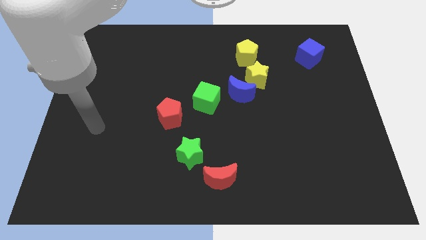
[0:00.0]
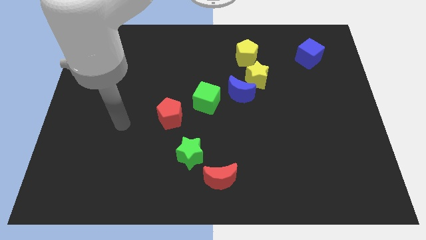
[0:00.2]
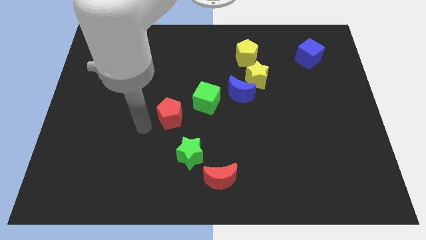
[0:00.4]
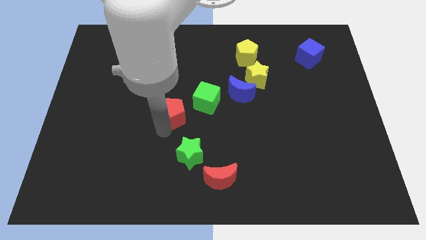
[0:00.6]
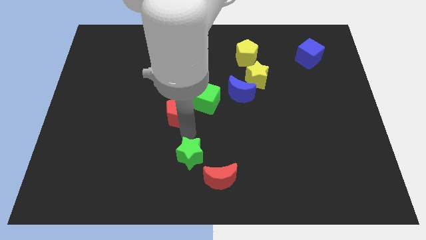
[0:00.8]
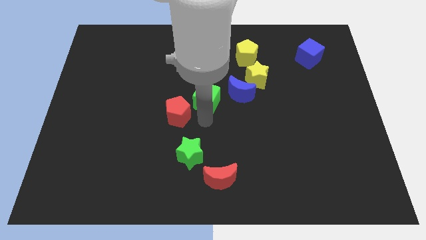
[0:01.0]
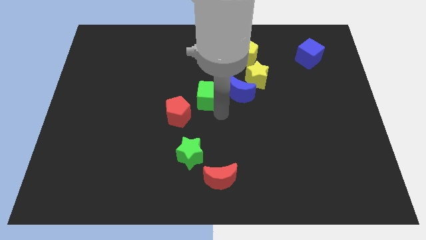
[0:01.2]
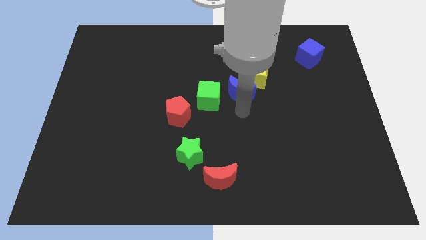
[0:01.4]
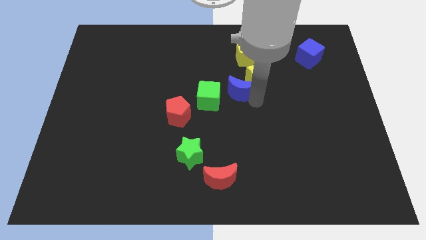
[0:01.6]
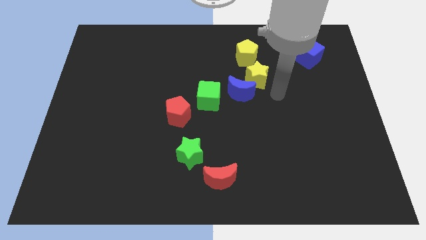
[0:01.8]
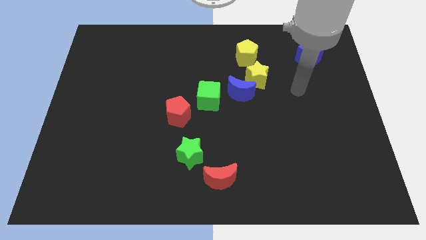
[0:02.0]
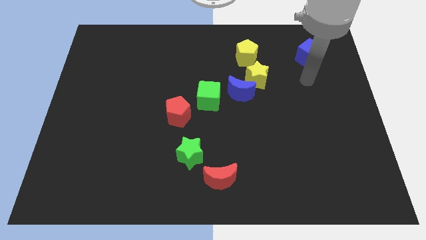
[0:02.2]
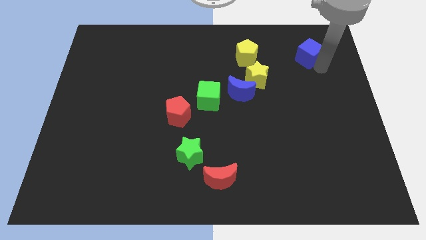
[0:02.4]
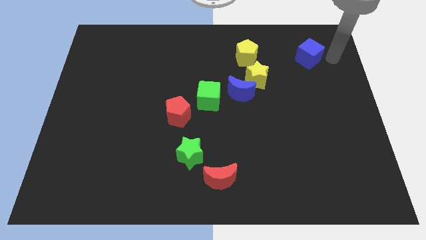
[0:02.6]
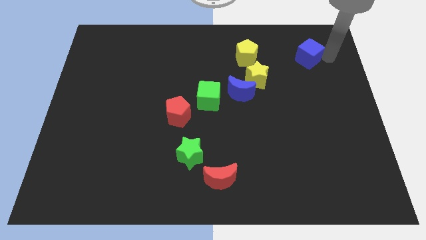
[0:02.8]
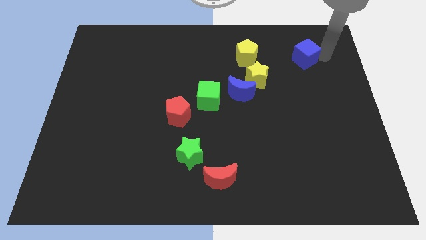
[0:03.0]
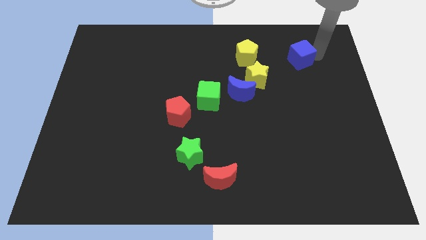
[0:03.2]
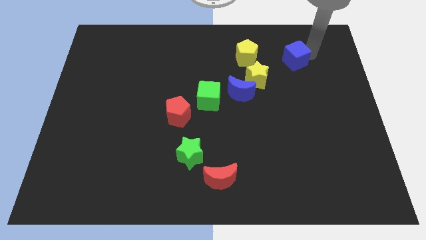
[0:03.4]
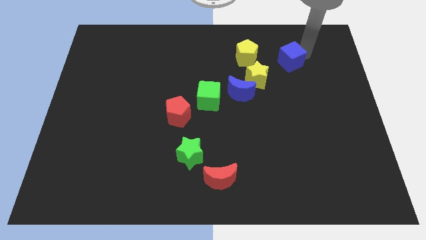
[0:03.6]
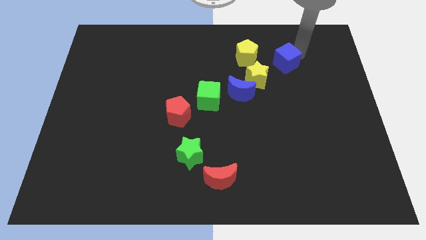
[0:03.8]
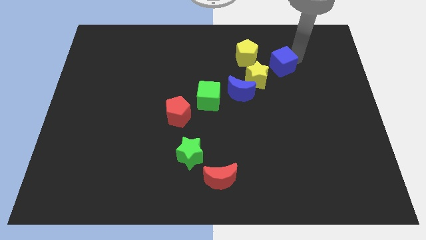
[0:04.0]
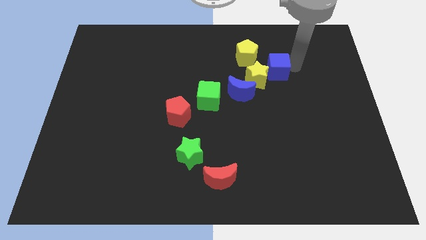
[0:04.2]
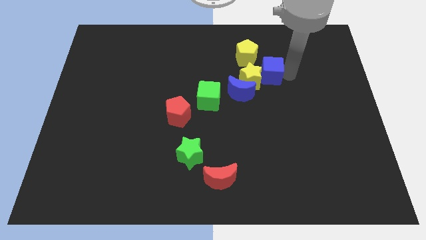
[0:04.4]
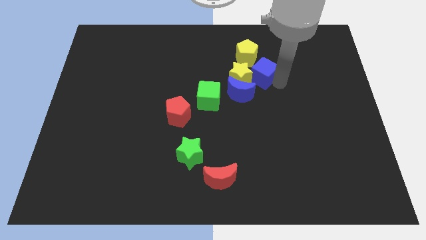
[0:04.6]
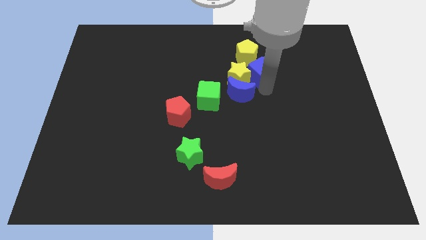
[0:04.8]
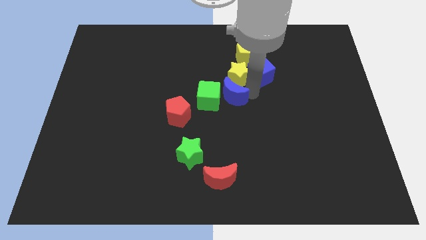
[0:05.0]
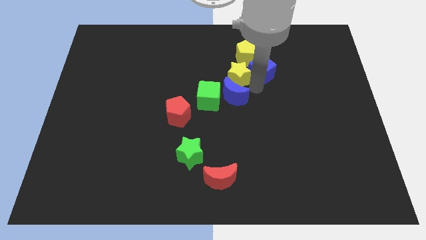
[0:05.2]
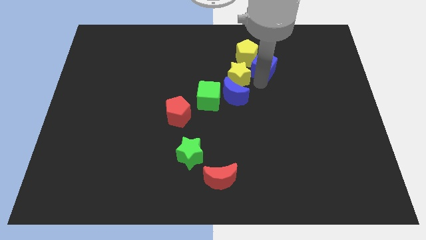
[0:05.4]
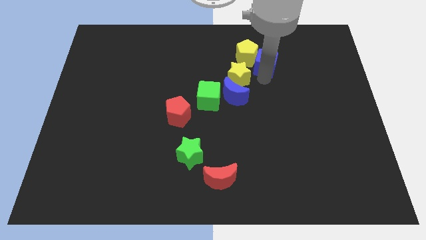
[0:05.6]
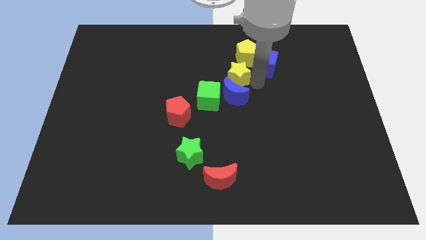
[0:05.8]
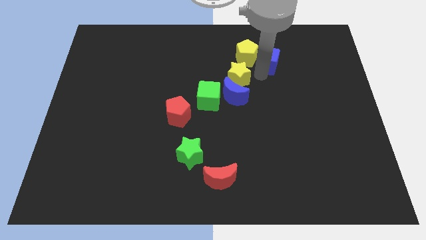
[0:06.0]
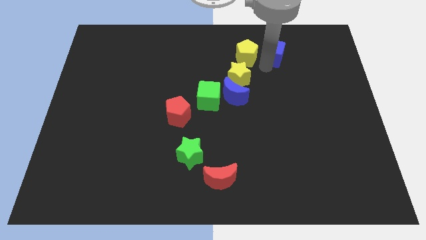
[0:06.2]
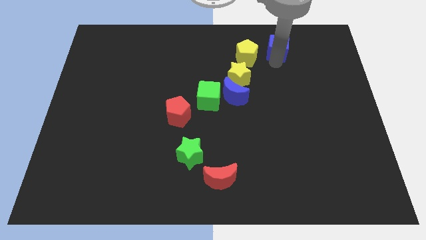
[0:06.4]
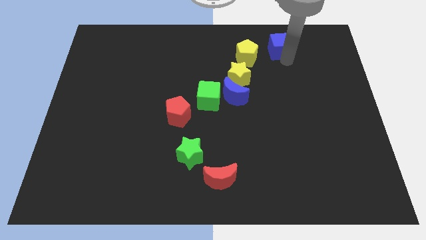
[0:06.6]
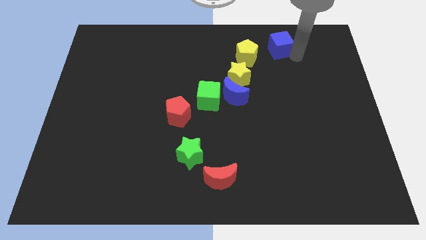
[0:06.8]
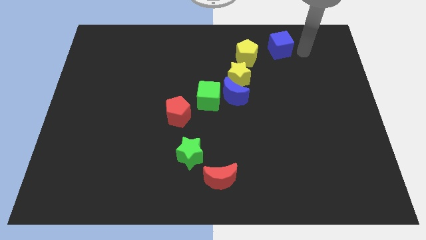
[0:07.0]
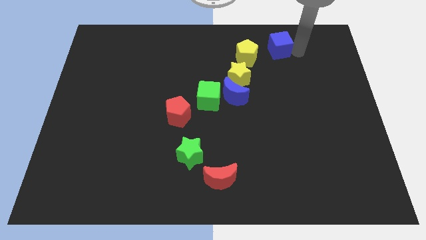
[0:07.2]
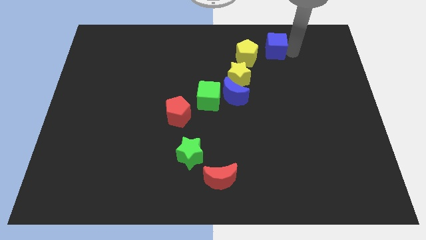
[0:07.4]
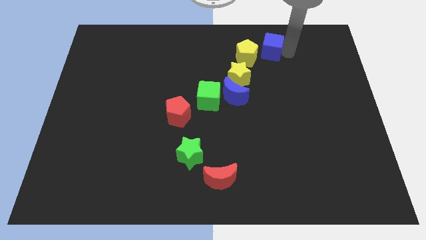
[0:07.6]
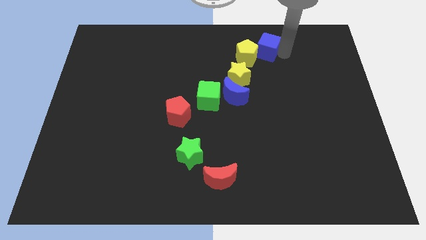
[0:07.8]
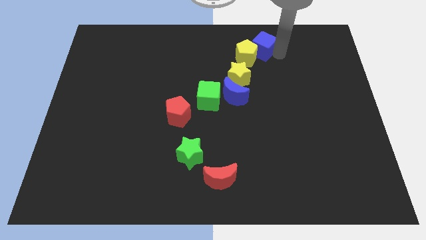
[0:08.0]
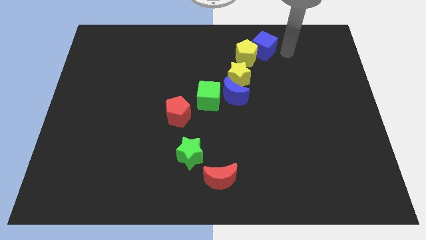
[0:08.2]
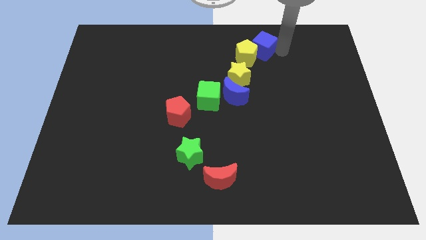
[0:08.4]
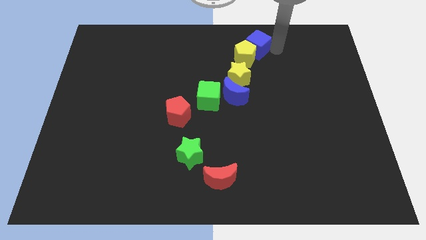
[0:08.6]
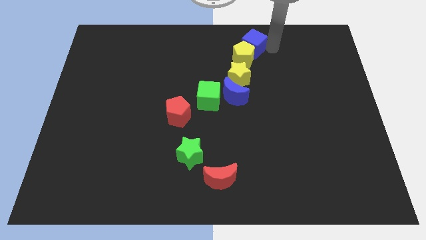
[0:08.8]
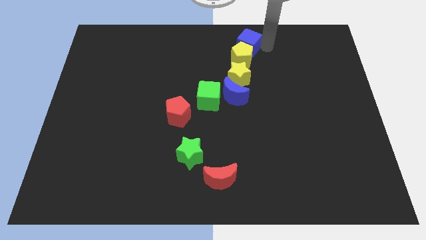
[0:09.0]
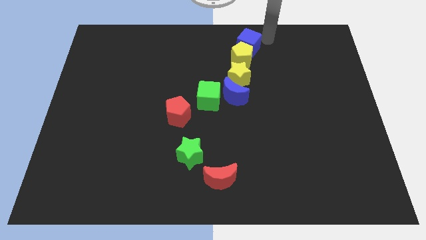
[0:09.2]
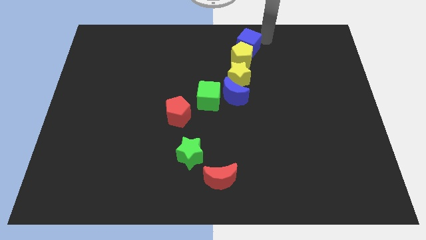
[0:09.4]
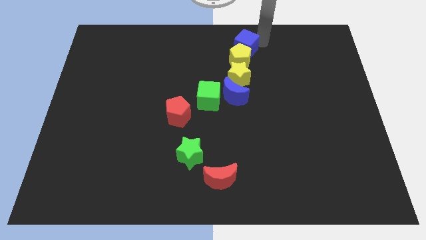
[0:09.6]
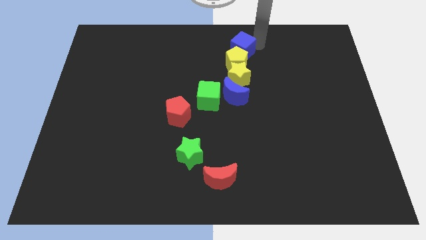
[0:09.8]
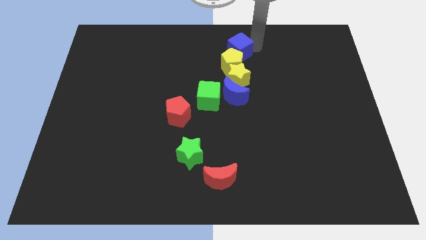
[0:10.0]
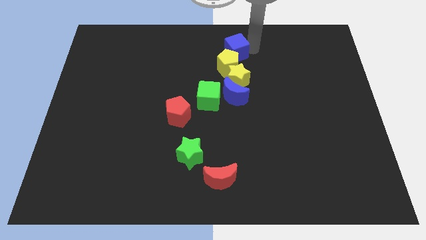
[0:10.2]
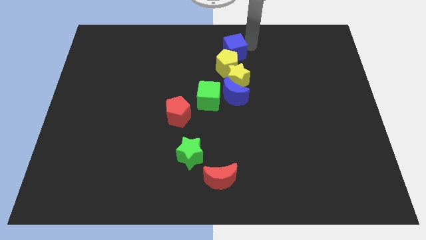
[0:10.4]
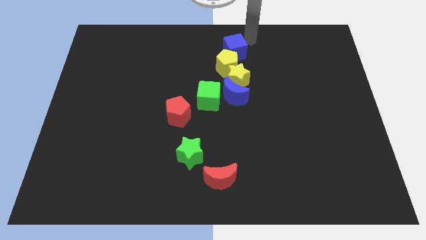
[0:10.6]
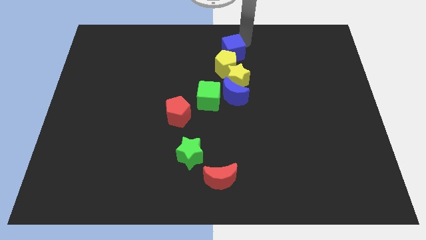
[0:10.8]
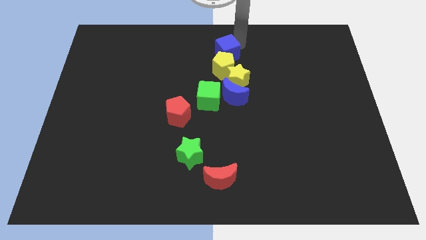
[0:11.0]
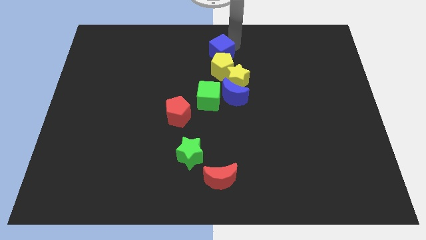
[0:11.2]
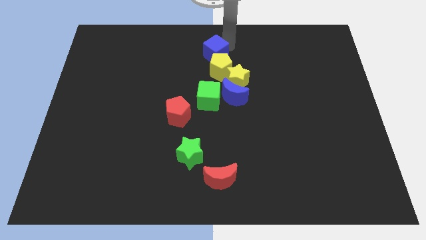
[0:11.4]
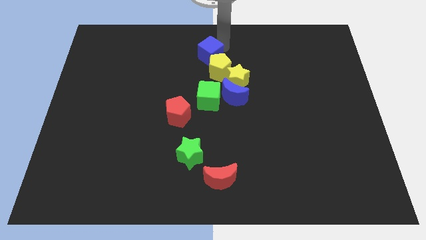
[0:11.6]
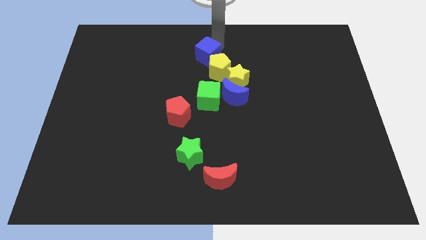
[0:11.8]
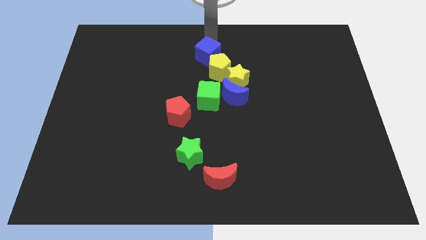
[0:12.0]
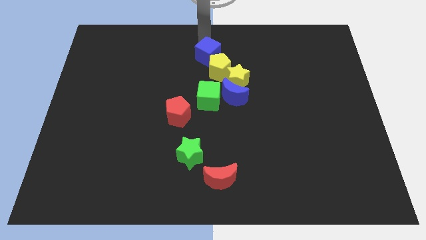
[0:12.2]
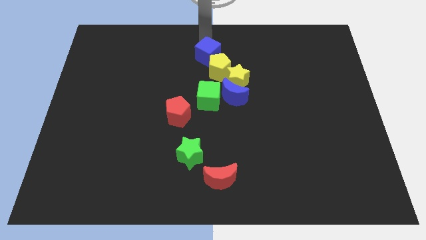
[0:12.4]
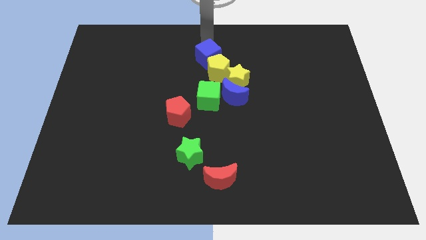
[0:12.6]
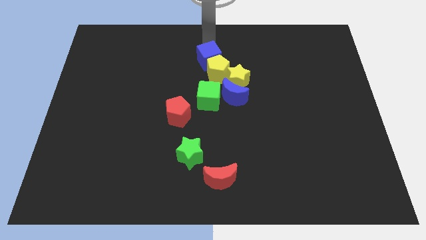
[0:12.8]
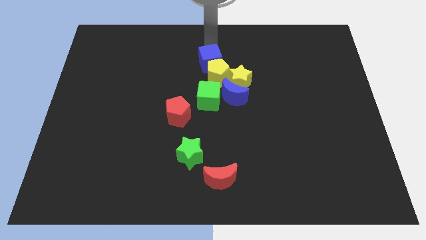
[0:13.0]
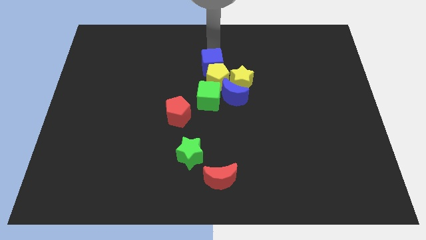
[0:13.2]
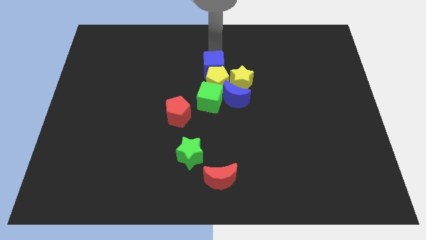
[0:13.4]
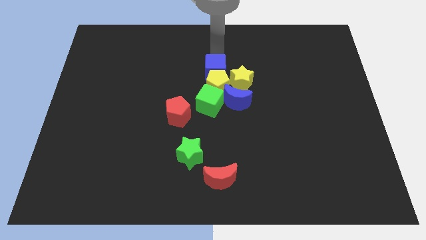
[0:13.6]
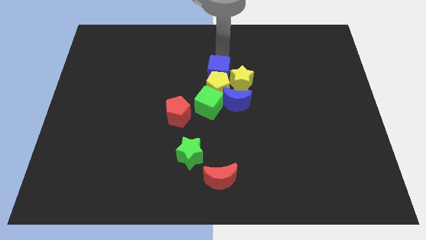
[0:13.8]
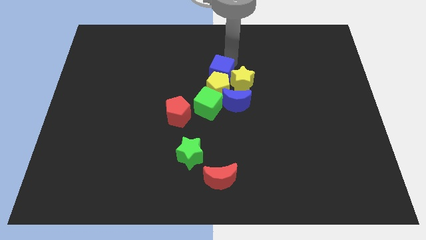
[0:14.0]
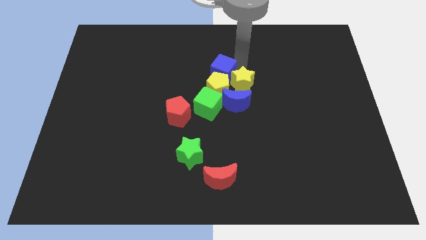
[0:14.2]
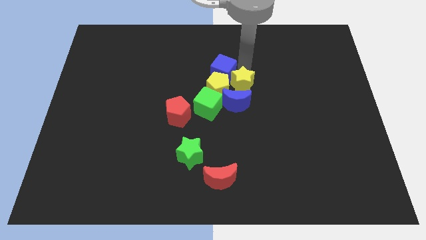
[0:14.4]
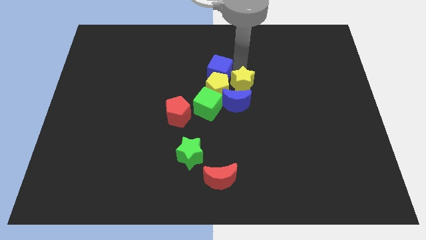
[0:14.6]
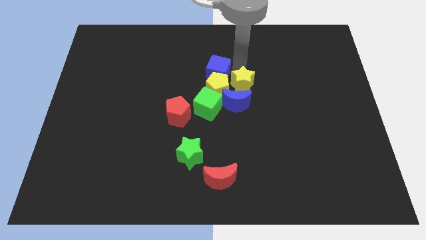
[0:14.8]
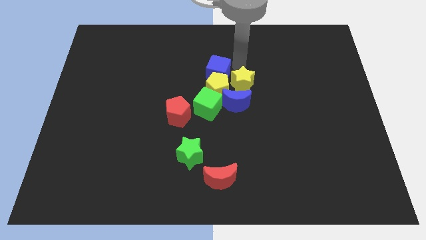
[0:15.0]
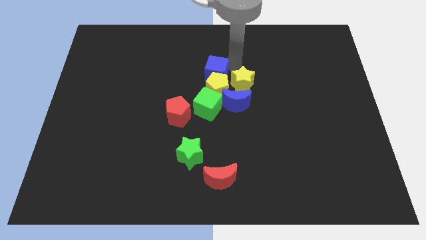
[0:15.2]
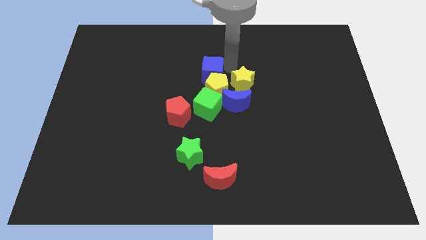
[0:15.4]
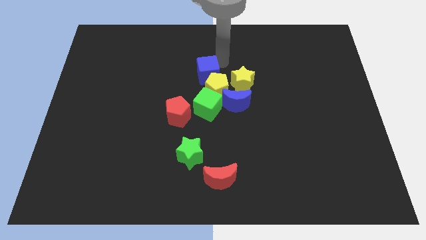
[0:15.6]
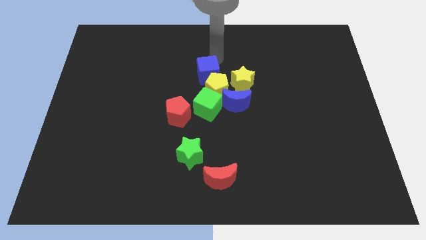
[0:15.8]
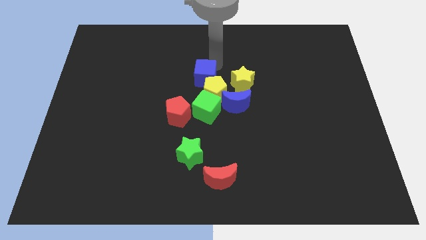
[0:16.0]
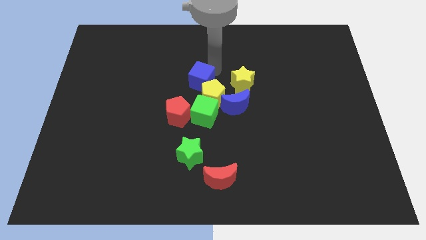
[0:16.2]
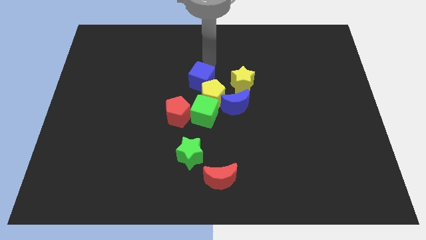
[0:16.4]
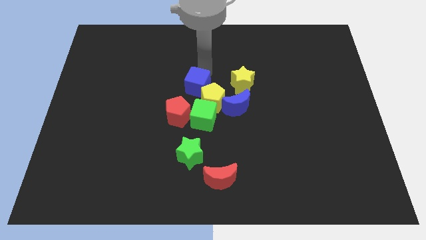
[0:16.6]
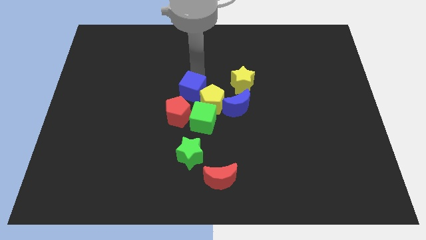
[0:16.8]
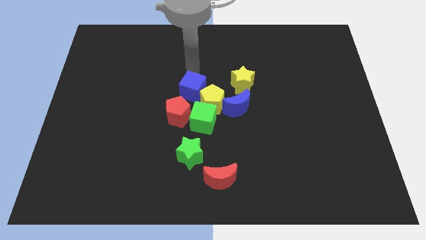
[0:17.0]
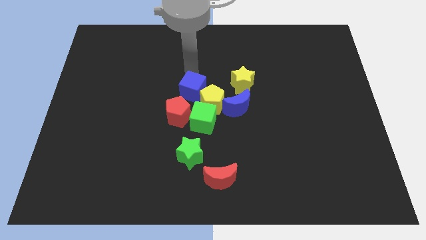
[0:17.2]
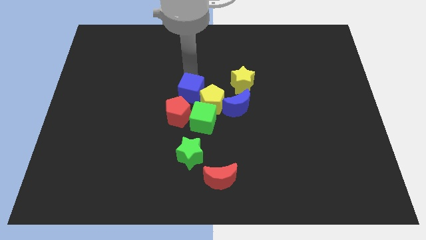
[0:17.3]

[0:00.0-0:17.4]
push the blue cube to the left of the blue moon
